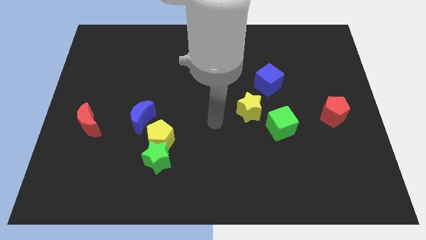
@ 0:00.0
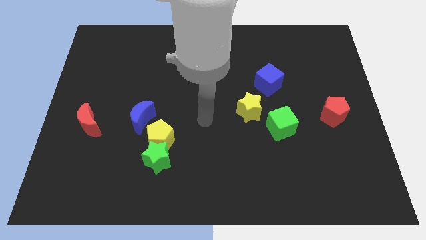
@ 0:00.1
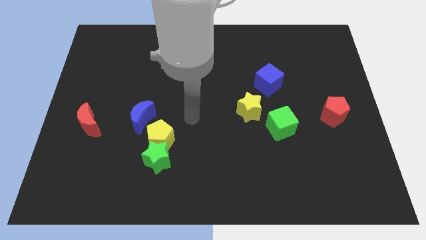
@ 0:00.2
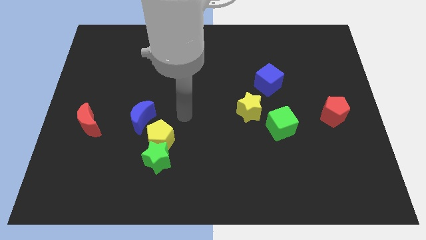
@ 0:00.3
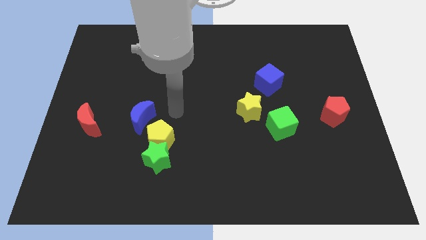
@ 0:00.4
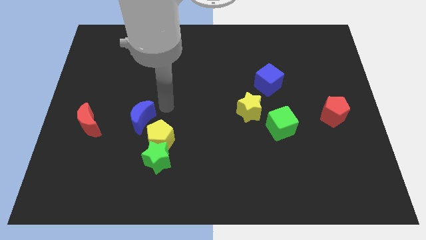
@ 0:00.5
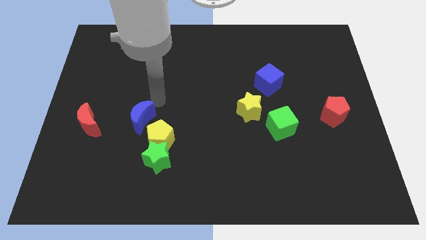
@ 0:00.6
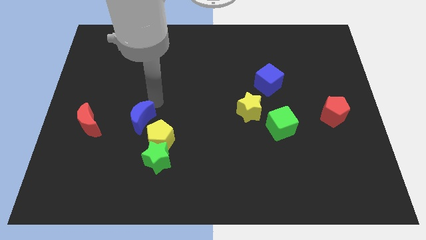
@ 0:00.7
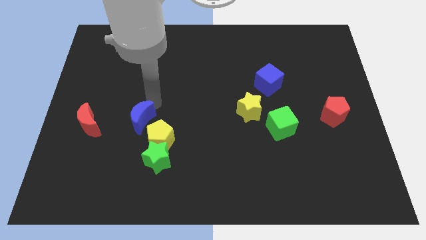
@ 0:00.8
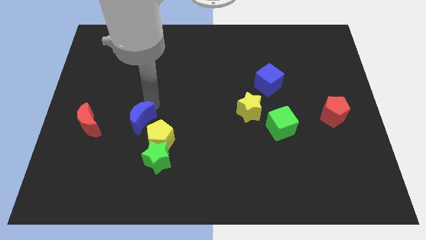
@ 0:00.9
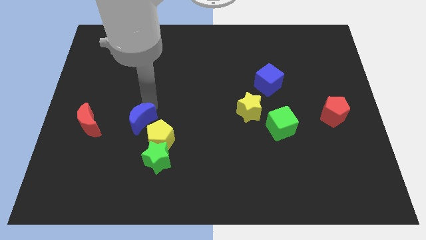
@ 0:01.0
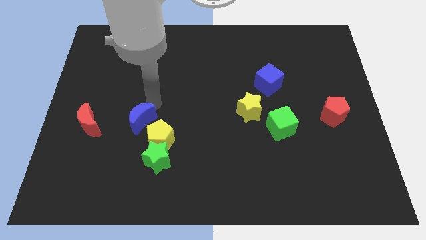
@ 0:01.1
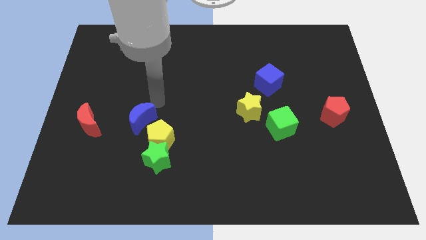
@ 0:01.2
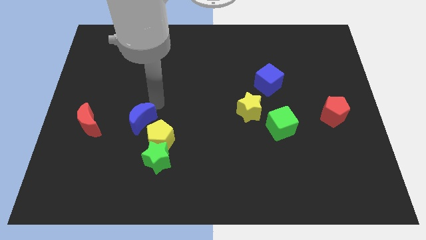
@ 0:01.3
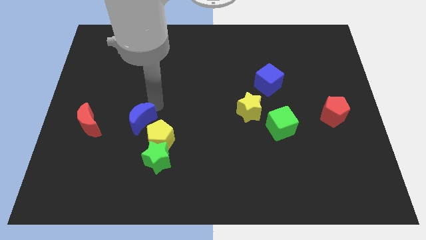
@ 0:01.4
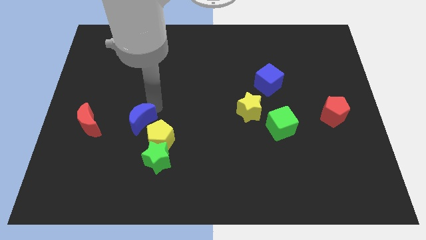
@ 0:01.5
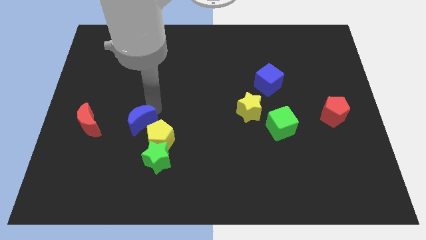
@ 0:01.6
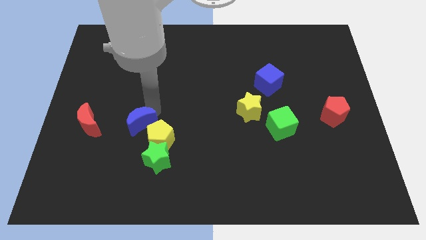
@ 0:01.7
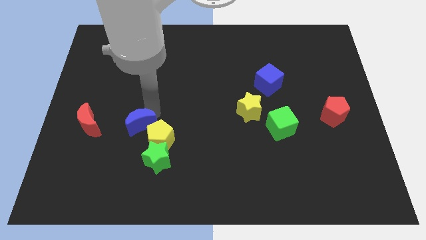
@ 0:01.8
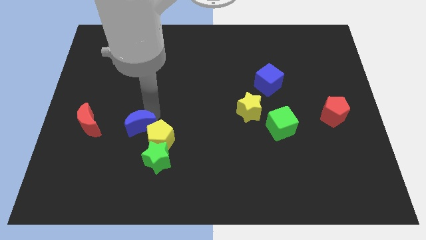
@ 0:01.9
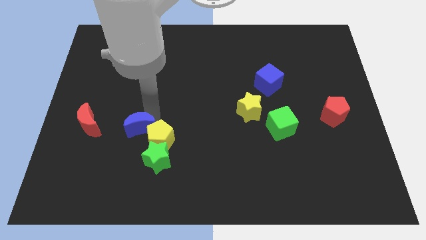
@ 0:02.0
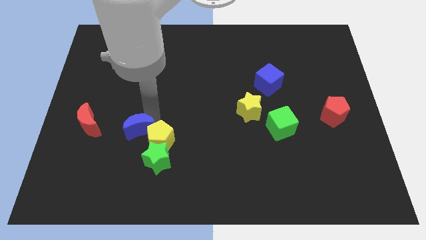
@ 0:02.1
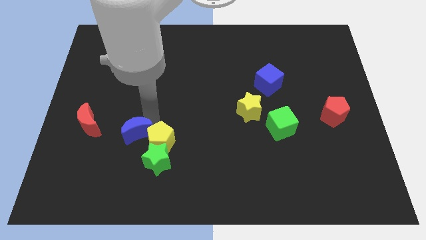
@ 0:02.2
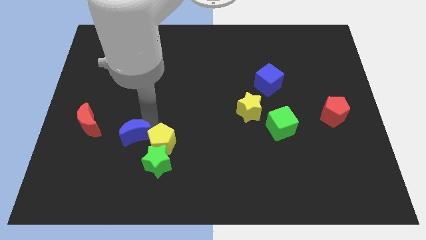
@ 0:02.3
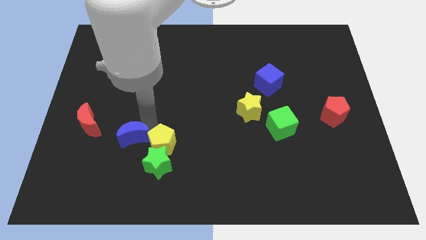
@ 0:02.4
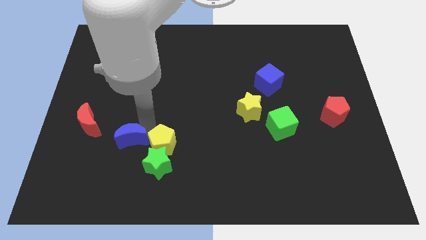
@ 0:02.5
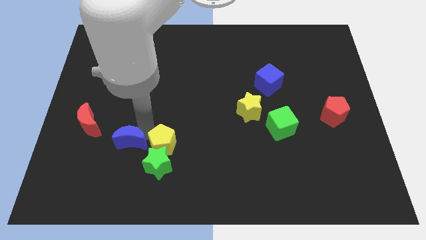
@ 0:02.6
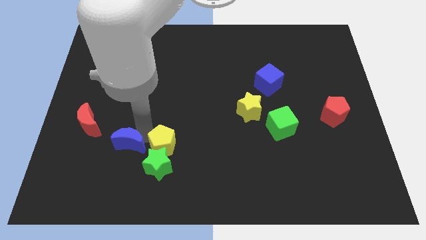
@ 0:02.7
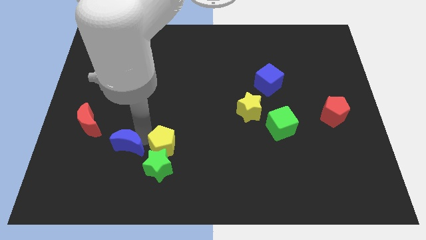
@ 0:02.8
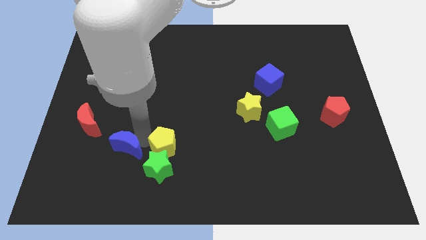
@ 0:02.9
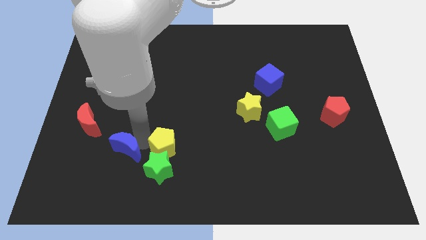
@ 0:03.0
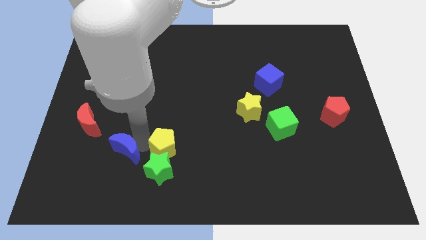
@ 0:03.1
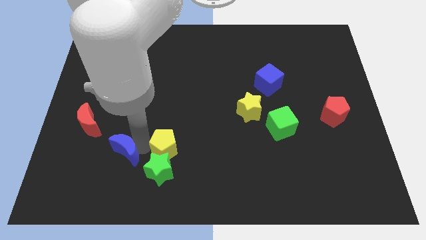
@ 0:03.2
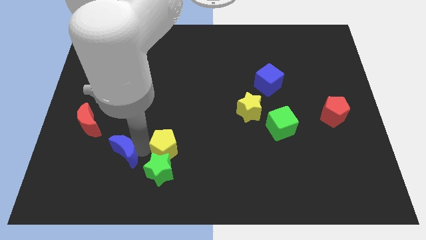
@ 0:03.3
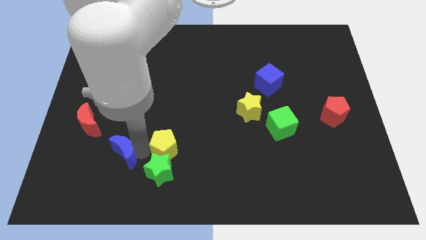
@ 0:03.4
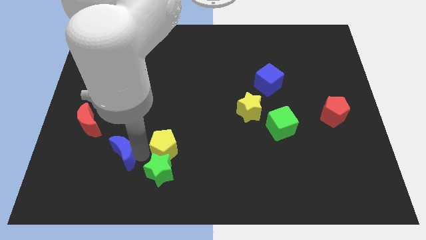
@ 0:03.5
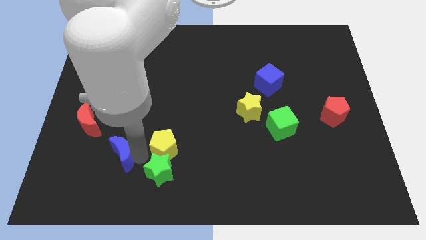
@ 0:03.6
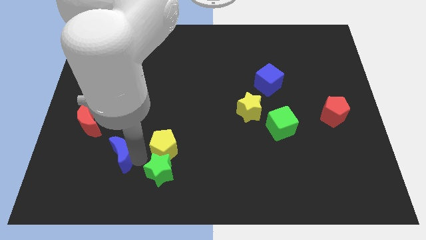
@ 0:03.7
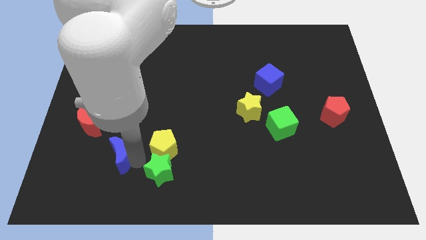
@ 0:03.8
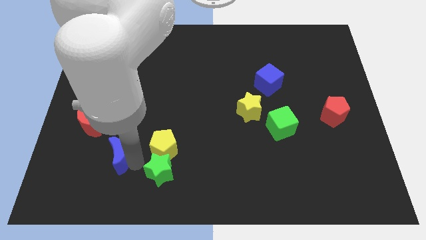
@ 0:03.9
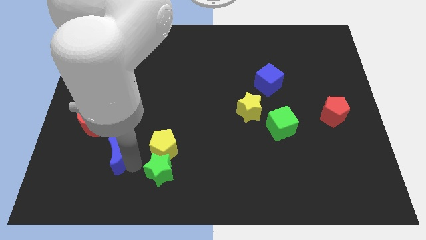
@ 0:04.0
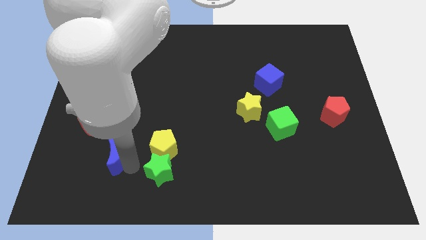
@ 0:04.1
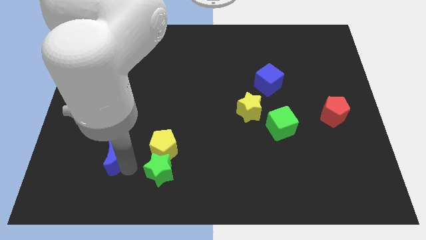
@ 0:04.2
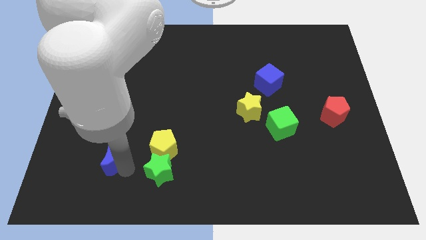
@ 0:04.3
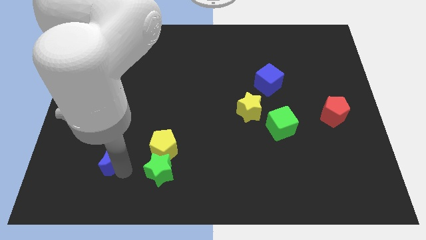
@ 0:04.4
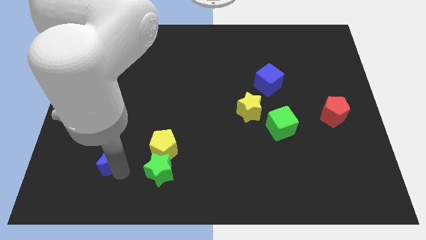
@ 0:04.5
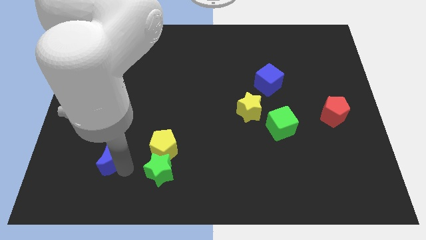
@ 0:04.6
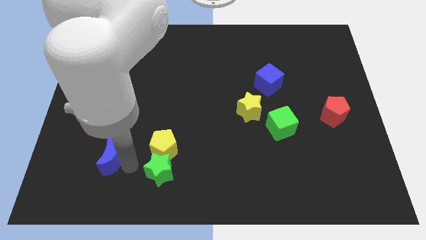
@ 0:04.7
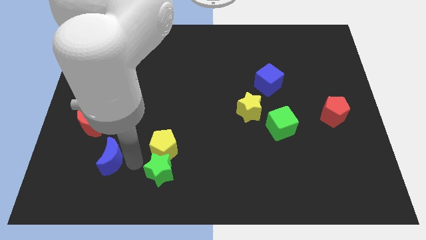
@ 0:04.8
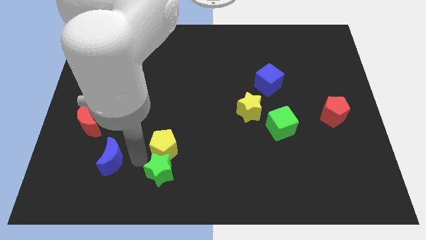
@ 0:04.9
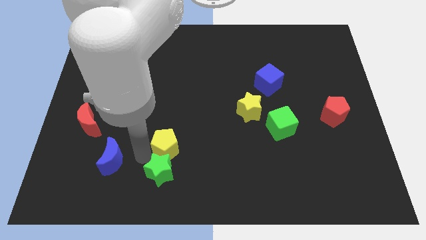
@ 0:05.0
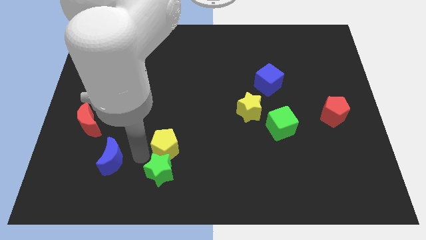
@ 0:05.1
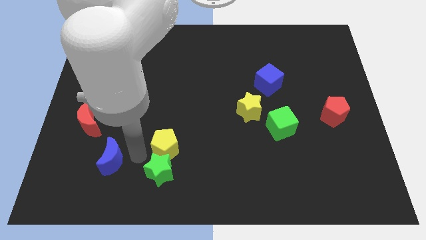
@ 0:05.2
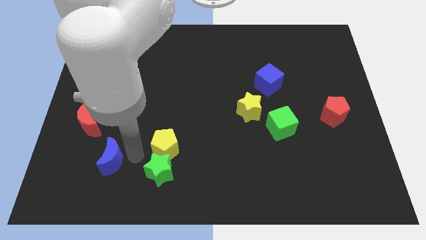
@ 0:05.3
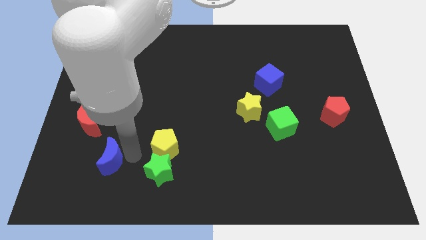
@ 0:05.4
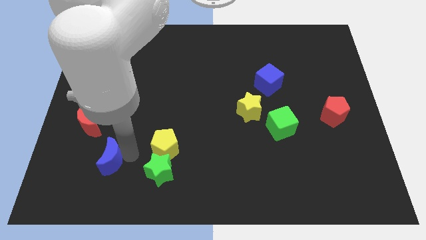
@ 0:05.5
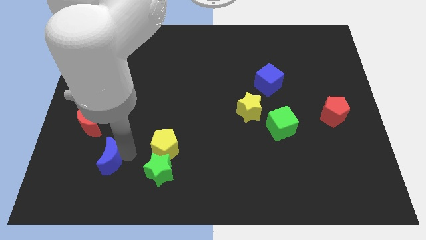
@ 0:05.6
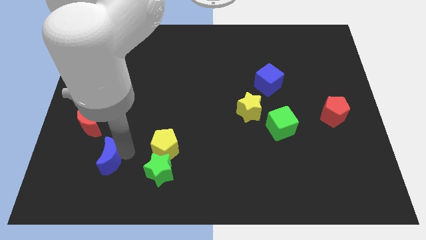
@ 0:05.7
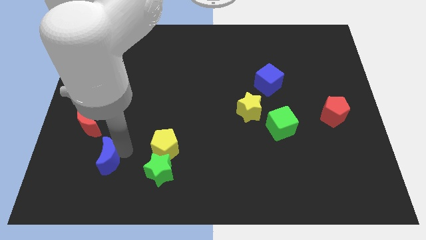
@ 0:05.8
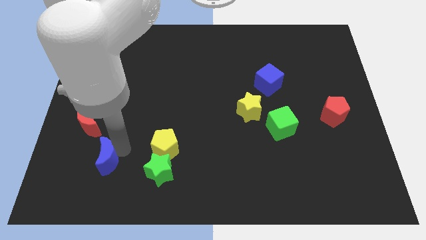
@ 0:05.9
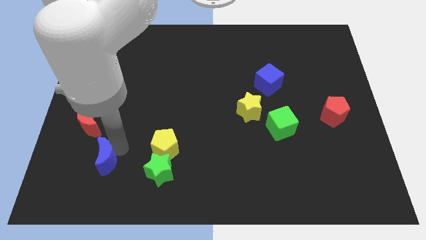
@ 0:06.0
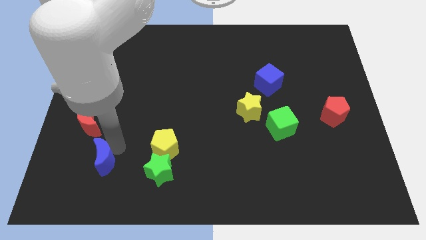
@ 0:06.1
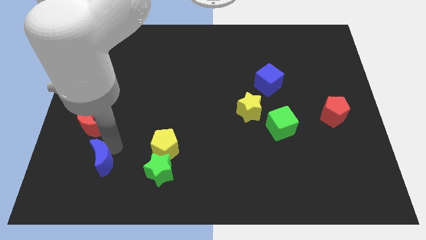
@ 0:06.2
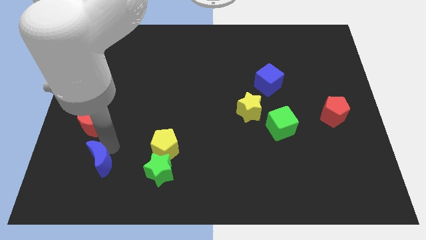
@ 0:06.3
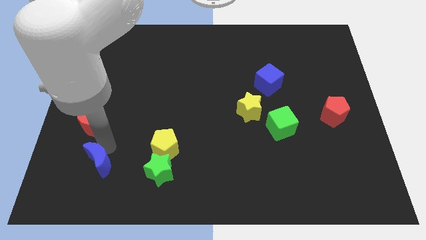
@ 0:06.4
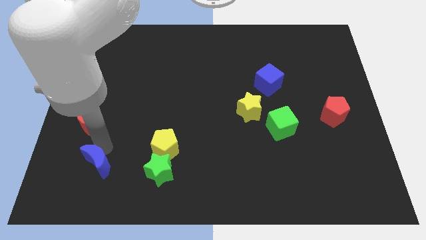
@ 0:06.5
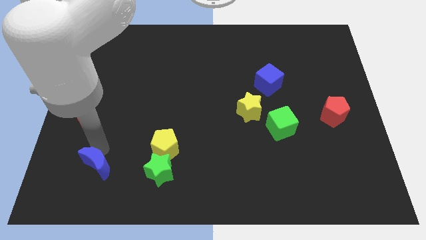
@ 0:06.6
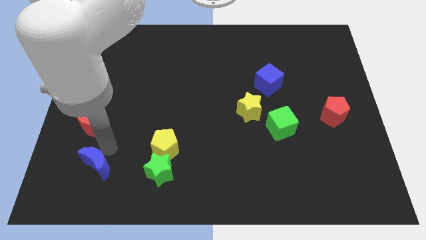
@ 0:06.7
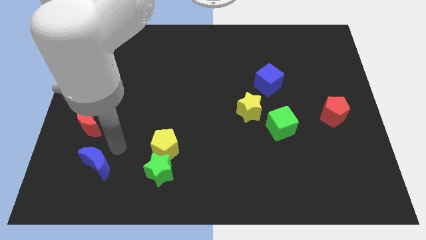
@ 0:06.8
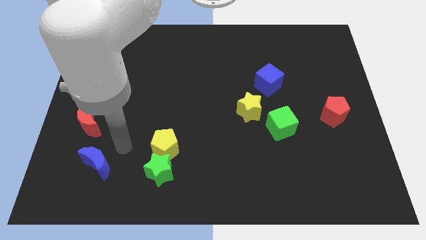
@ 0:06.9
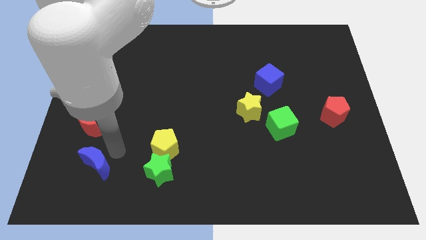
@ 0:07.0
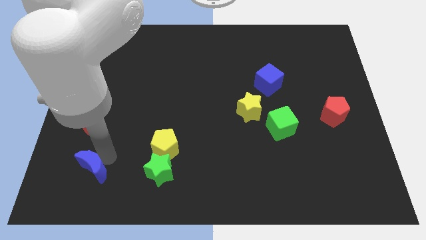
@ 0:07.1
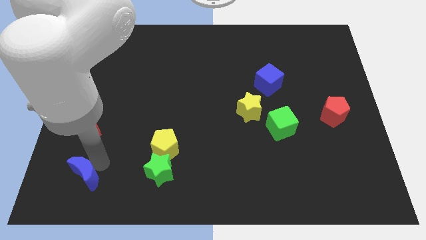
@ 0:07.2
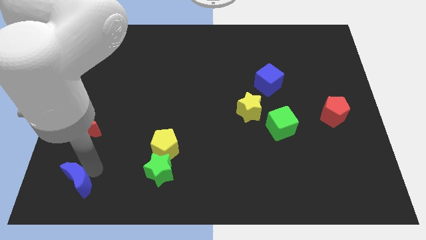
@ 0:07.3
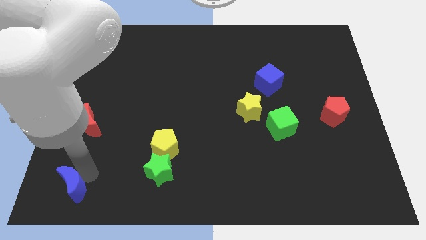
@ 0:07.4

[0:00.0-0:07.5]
move the blue moon to the bottom left of the board
